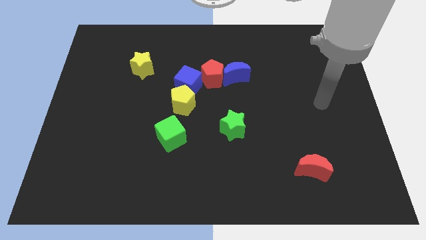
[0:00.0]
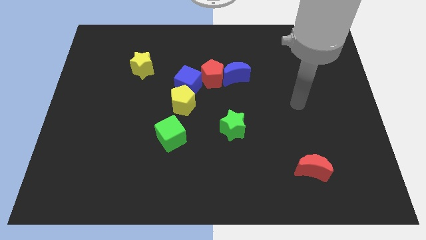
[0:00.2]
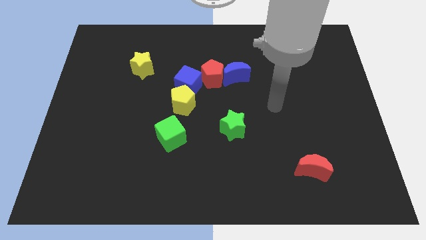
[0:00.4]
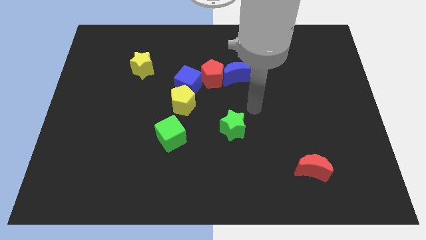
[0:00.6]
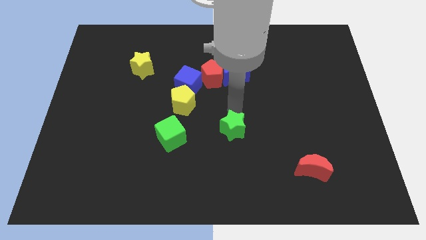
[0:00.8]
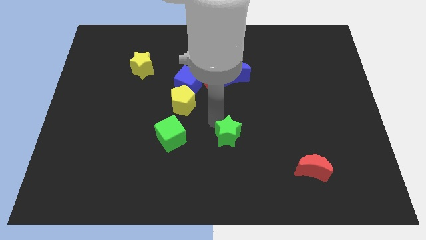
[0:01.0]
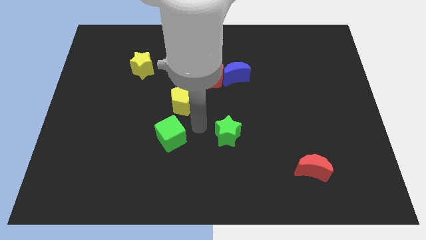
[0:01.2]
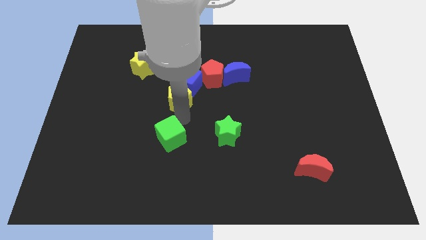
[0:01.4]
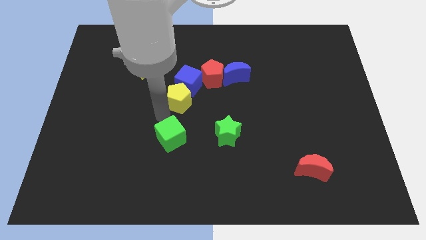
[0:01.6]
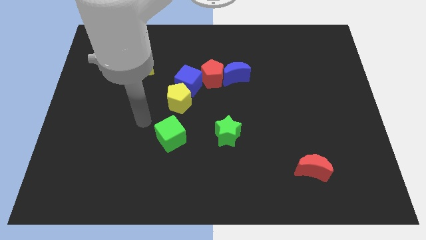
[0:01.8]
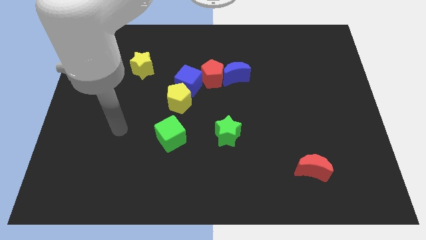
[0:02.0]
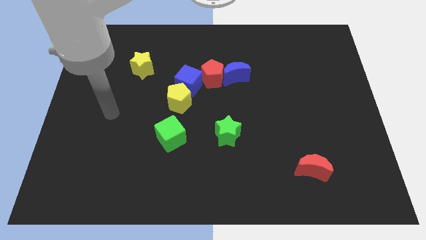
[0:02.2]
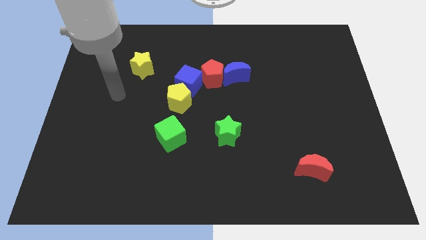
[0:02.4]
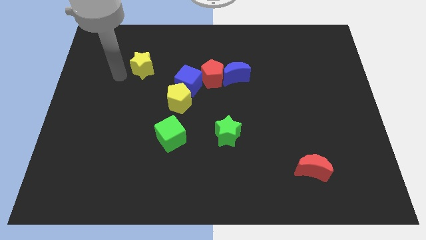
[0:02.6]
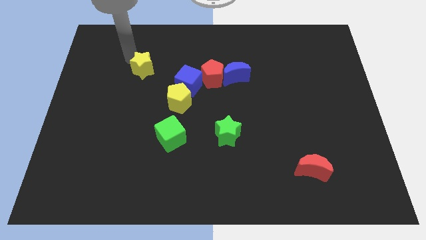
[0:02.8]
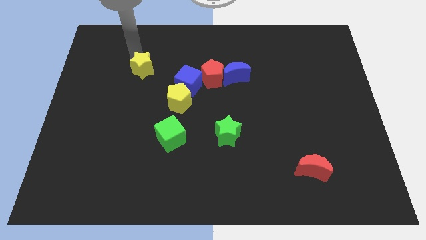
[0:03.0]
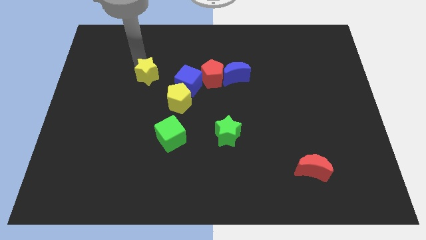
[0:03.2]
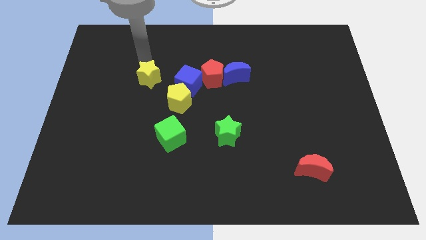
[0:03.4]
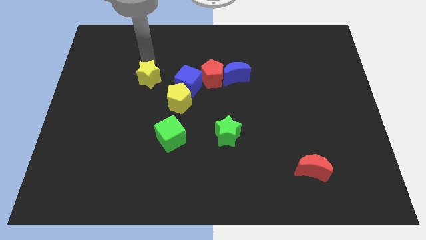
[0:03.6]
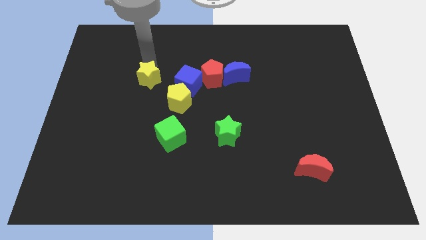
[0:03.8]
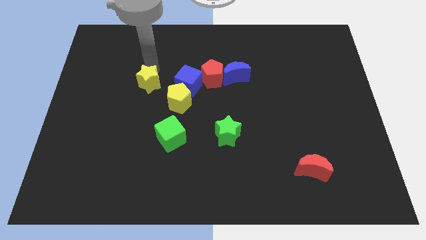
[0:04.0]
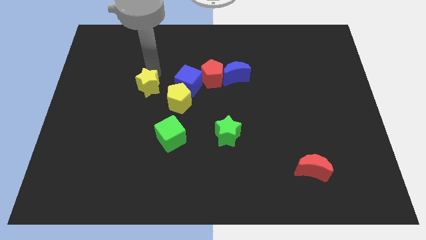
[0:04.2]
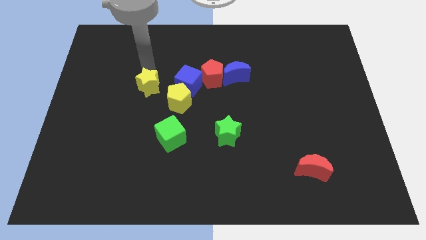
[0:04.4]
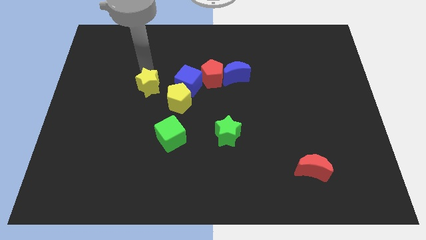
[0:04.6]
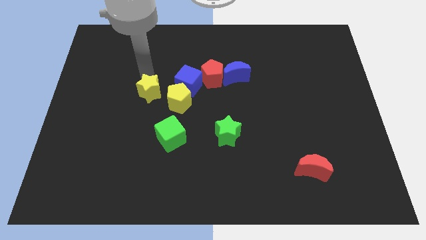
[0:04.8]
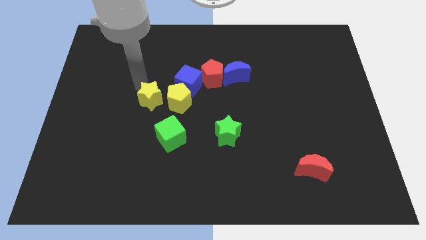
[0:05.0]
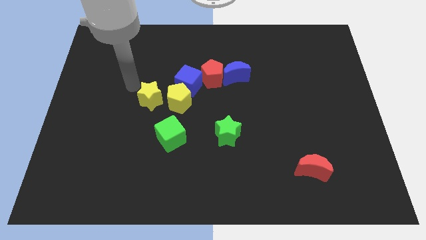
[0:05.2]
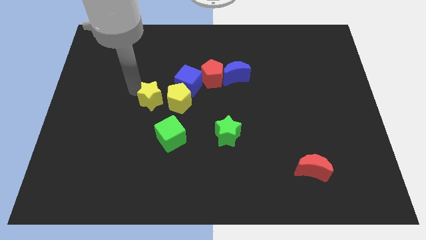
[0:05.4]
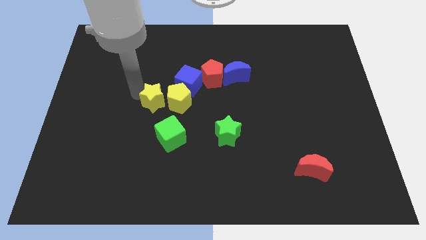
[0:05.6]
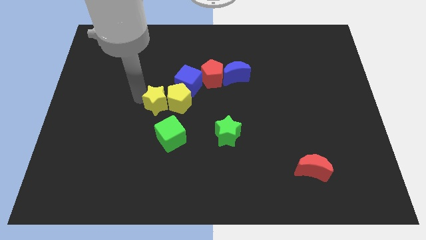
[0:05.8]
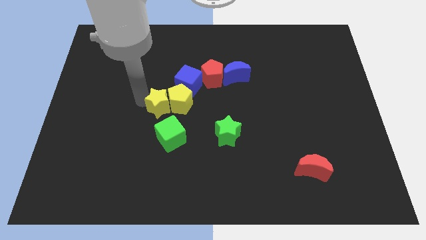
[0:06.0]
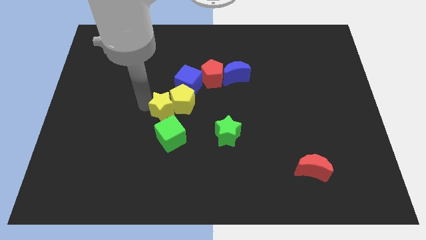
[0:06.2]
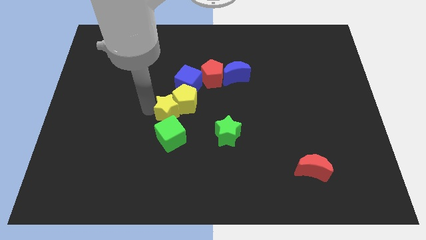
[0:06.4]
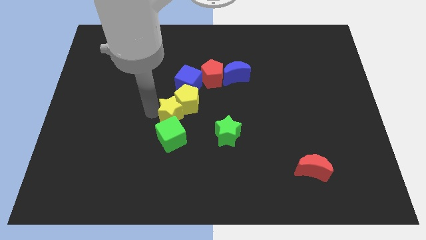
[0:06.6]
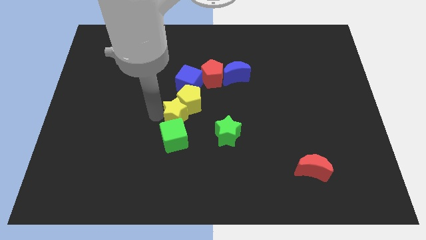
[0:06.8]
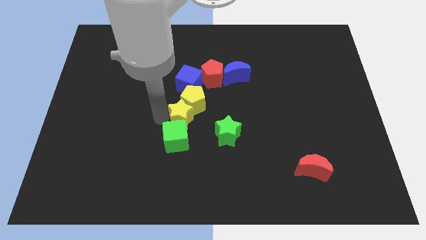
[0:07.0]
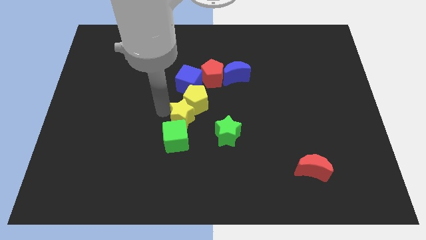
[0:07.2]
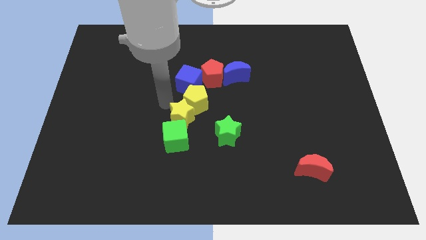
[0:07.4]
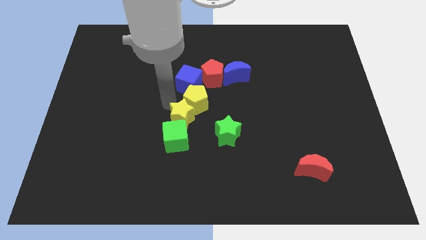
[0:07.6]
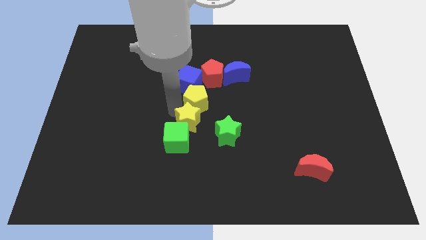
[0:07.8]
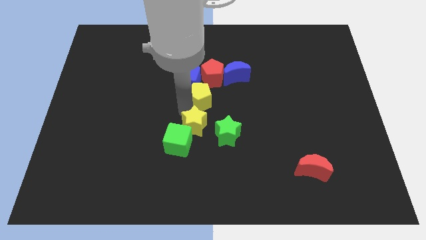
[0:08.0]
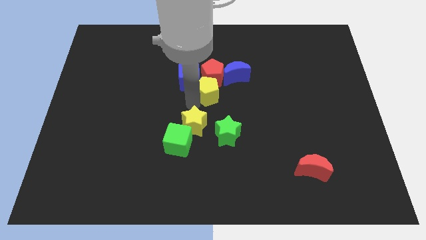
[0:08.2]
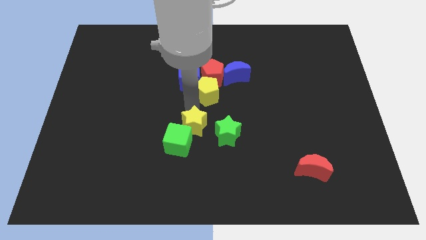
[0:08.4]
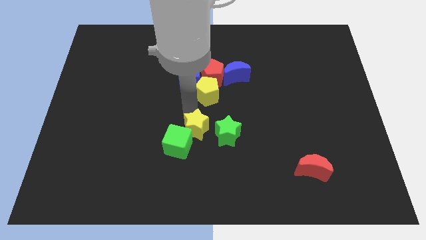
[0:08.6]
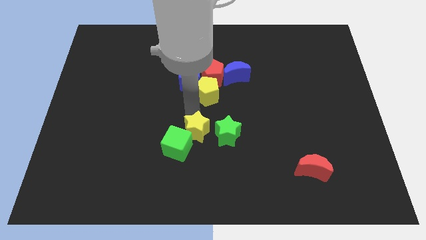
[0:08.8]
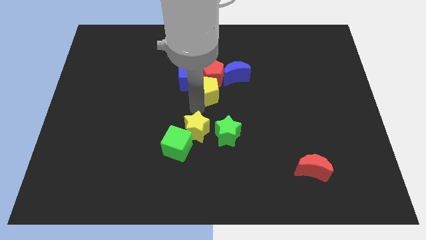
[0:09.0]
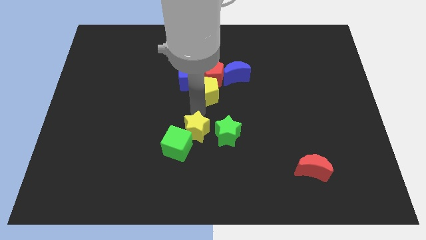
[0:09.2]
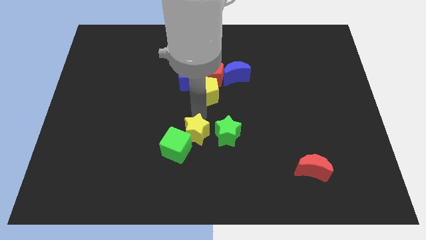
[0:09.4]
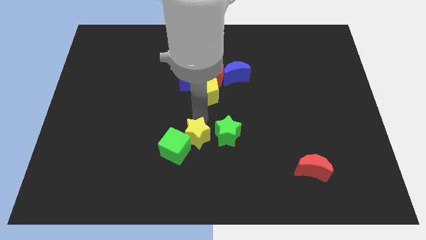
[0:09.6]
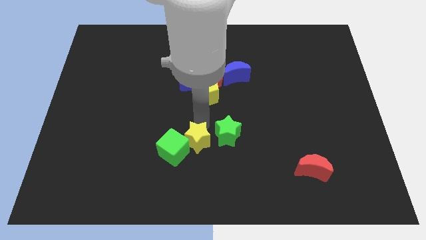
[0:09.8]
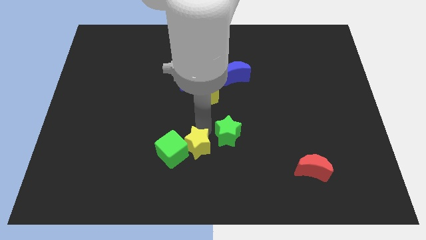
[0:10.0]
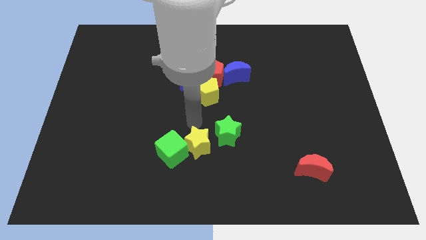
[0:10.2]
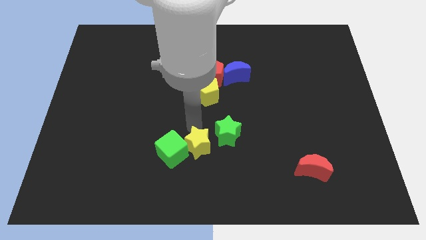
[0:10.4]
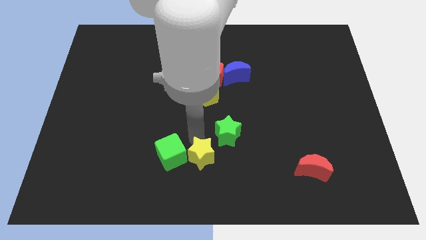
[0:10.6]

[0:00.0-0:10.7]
push the yellow star to the bottom side

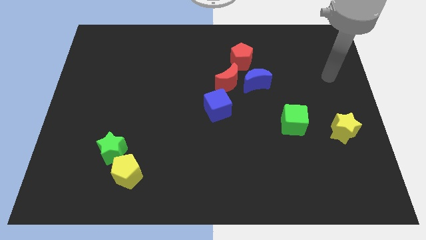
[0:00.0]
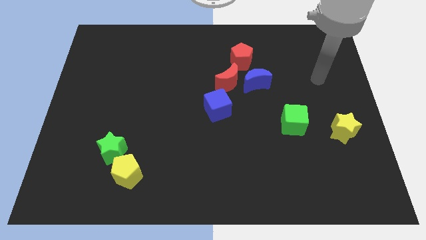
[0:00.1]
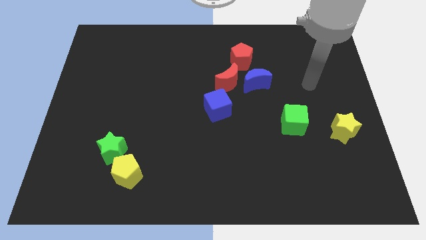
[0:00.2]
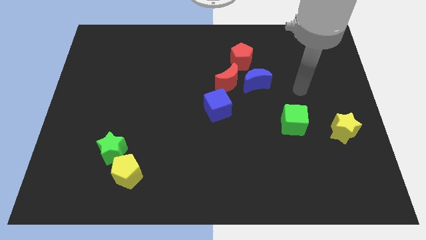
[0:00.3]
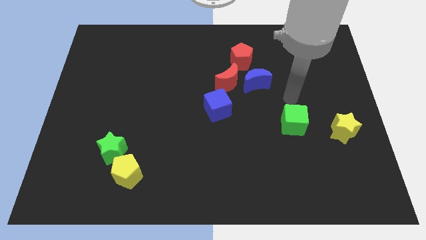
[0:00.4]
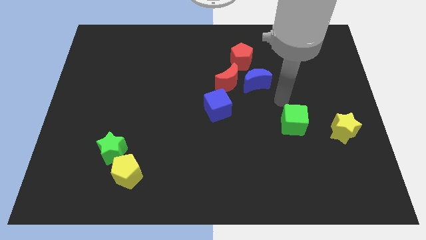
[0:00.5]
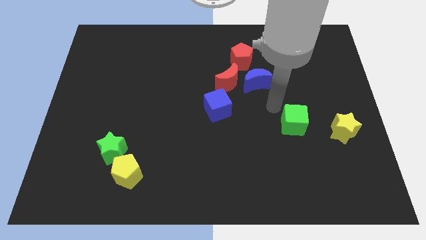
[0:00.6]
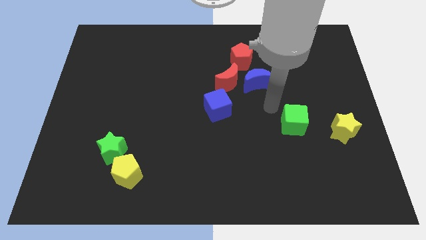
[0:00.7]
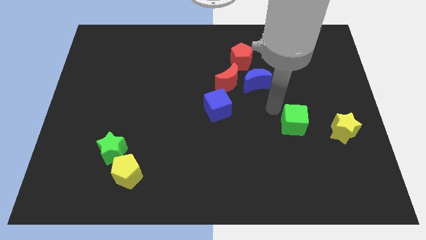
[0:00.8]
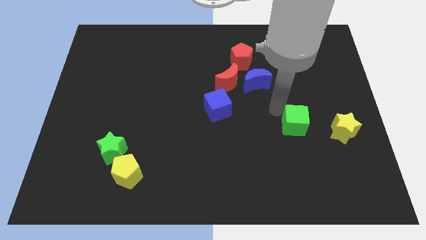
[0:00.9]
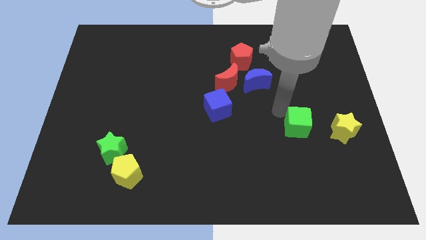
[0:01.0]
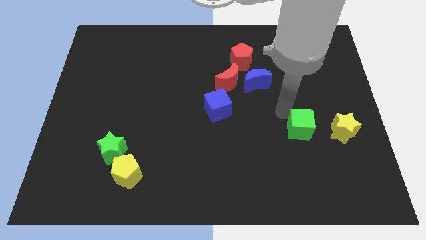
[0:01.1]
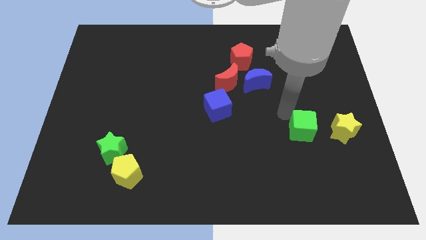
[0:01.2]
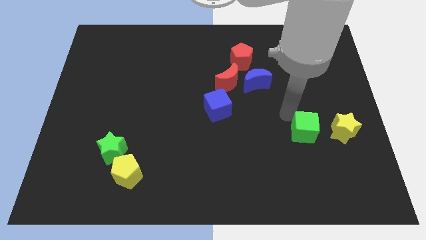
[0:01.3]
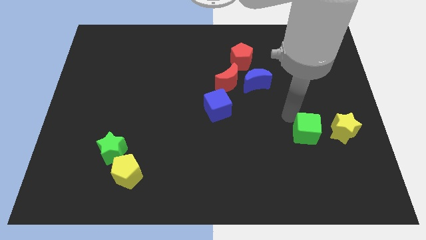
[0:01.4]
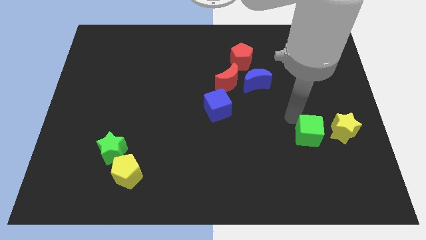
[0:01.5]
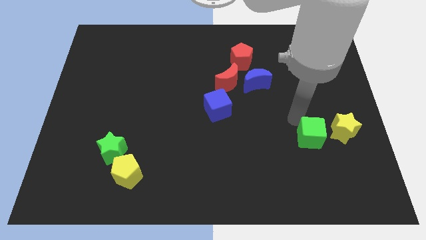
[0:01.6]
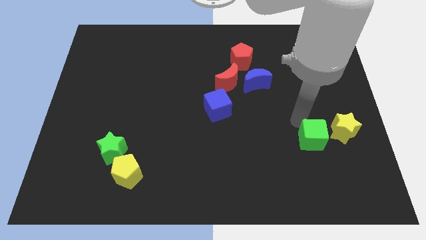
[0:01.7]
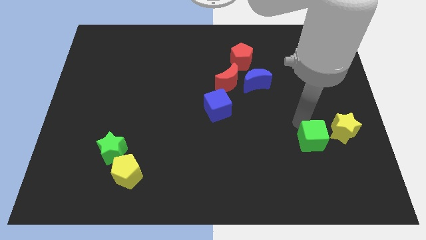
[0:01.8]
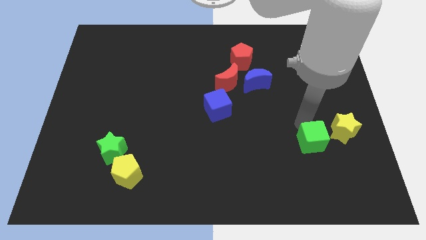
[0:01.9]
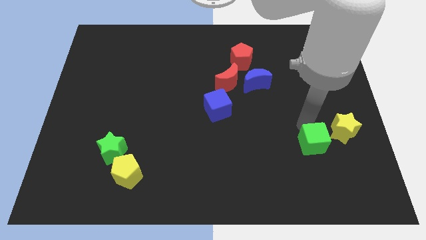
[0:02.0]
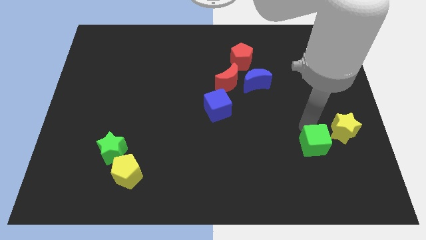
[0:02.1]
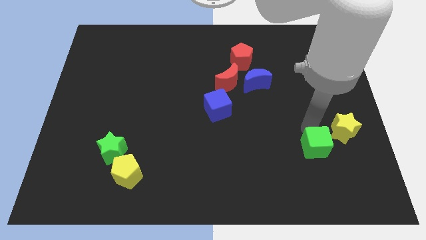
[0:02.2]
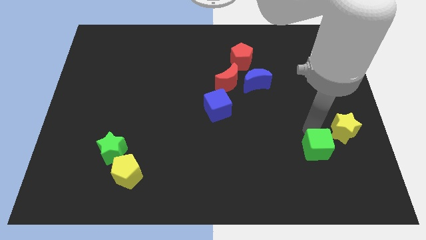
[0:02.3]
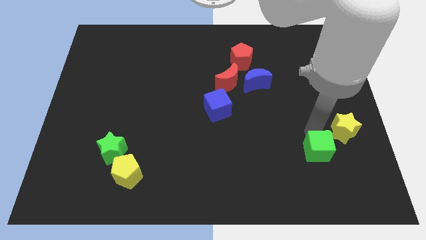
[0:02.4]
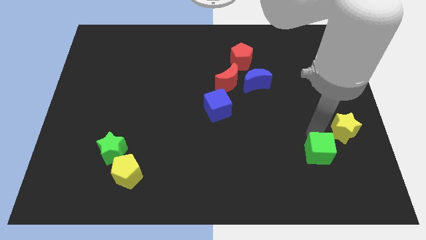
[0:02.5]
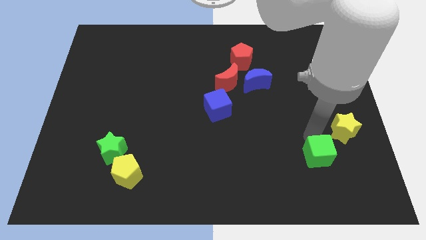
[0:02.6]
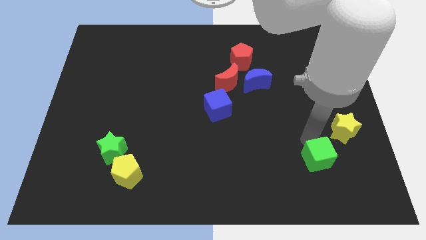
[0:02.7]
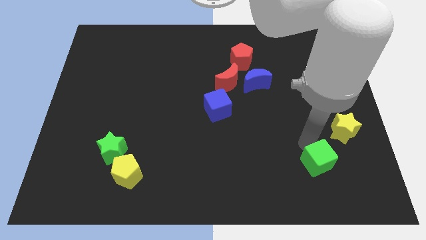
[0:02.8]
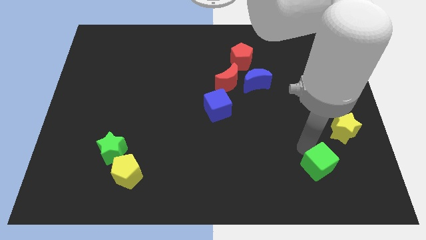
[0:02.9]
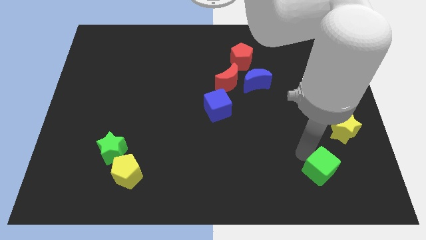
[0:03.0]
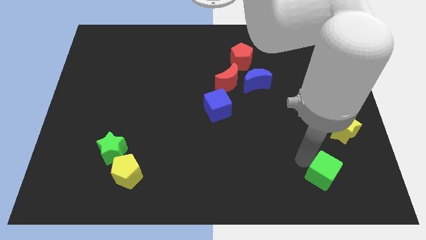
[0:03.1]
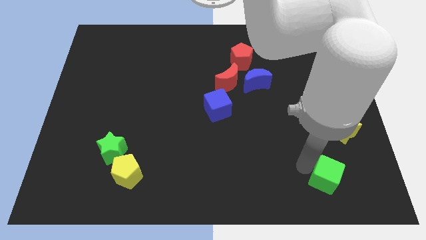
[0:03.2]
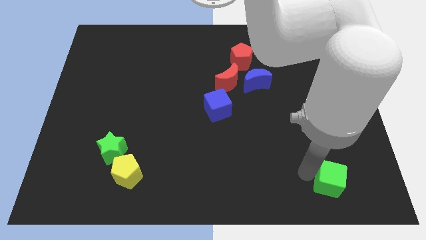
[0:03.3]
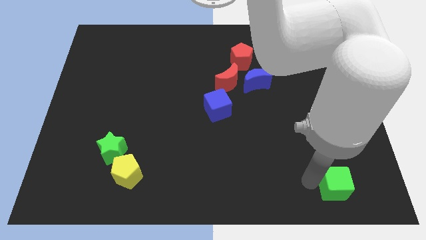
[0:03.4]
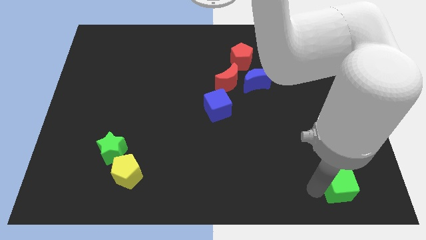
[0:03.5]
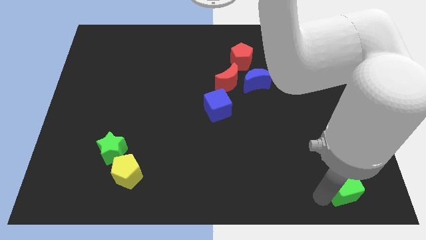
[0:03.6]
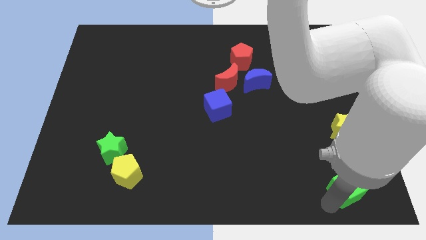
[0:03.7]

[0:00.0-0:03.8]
put the green cube to the bottom right corner
